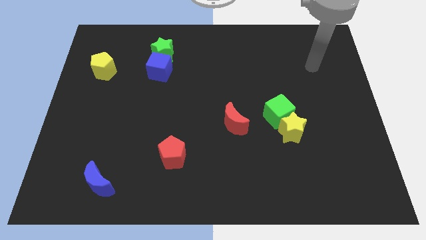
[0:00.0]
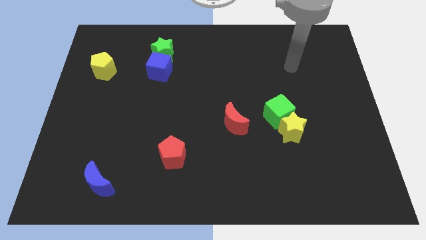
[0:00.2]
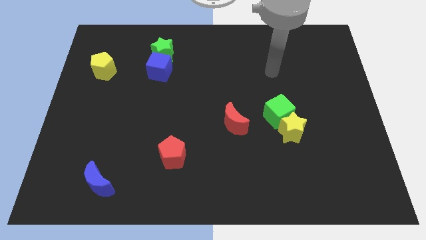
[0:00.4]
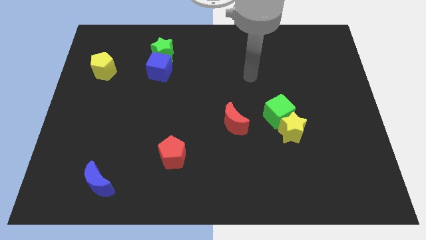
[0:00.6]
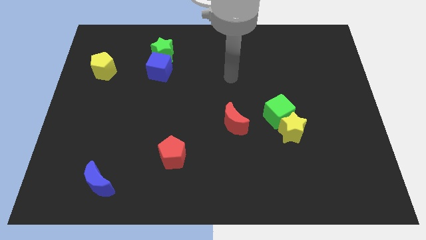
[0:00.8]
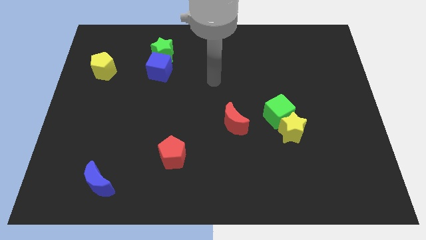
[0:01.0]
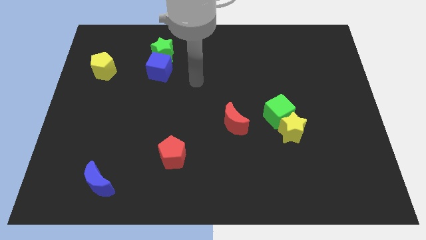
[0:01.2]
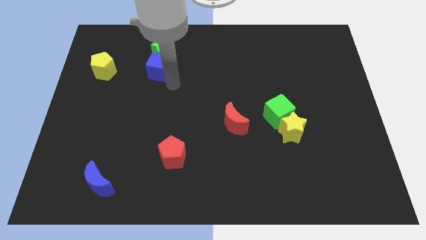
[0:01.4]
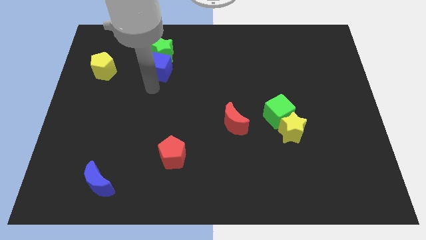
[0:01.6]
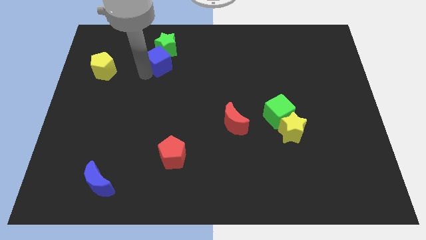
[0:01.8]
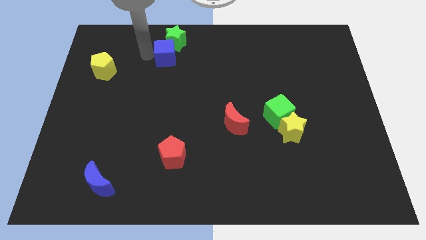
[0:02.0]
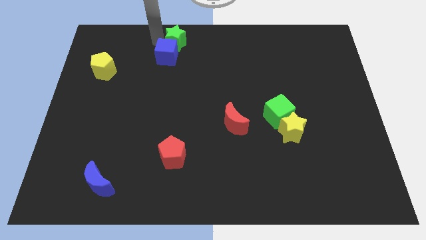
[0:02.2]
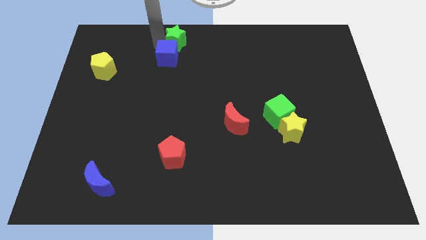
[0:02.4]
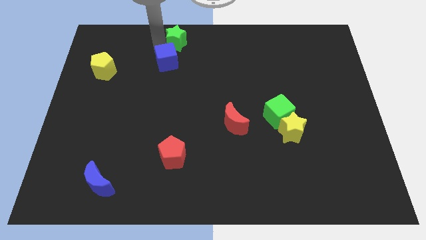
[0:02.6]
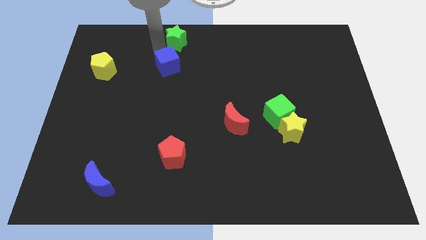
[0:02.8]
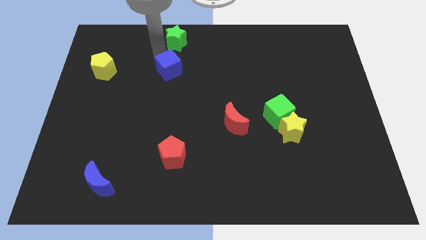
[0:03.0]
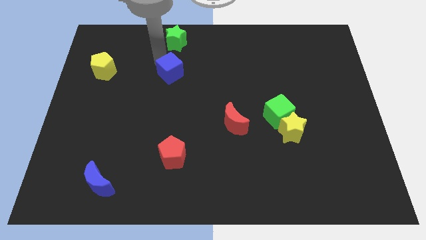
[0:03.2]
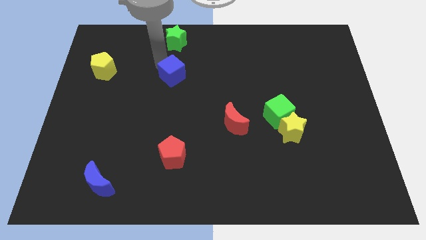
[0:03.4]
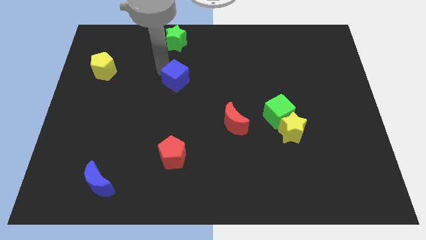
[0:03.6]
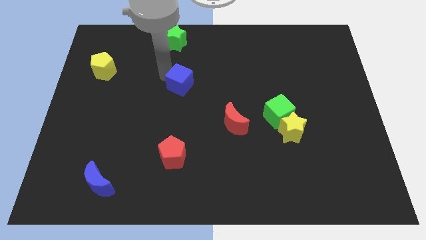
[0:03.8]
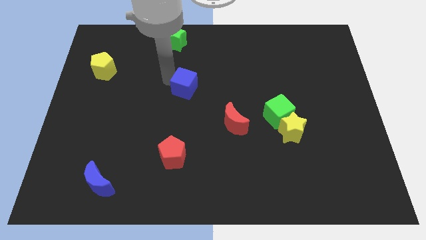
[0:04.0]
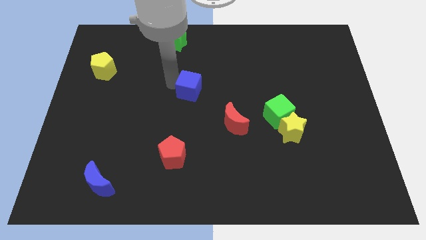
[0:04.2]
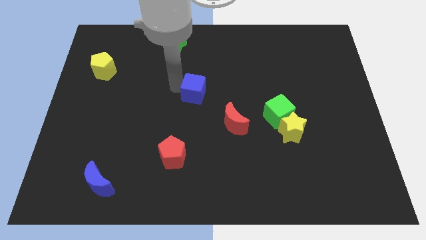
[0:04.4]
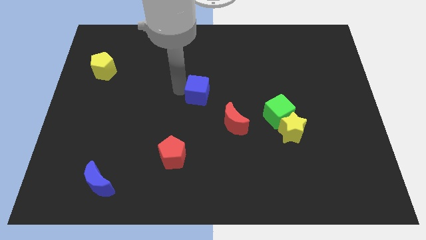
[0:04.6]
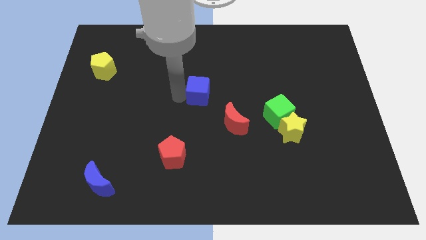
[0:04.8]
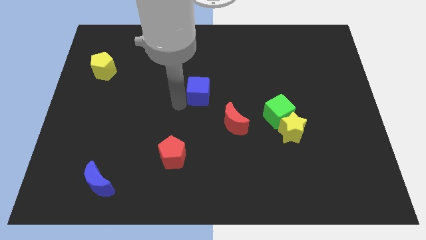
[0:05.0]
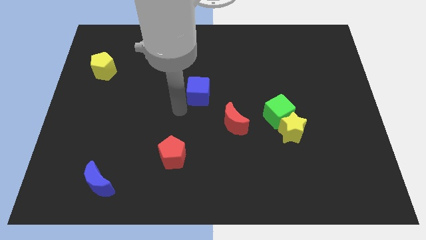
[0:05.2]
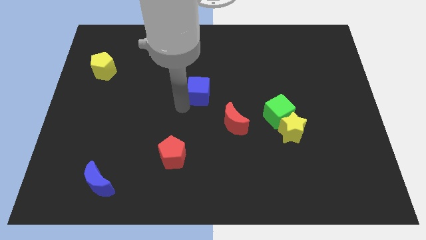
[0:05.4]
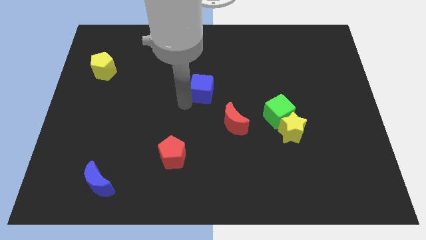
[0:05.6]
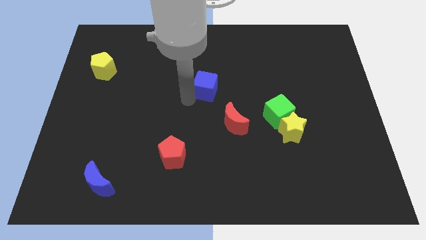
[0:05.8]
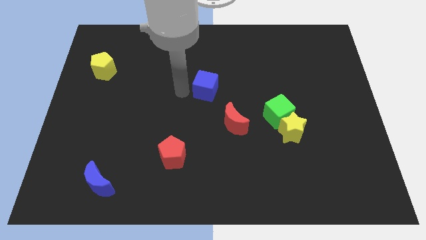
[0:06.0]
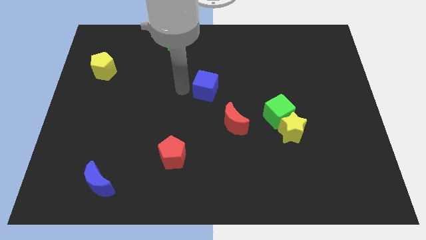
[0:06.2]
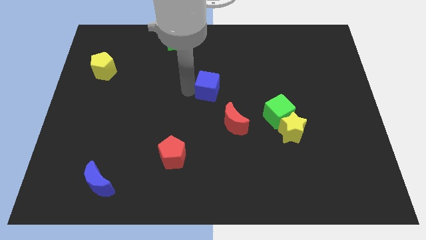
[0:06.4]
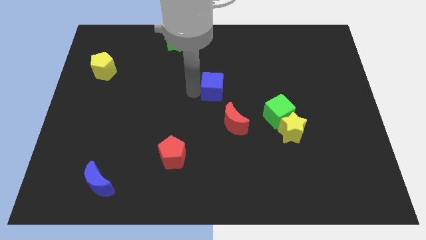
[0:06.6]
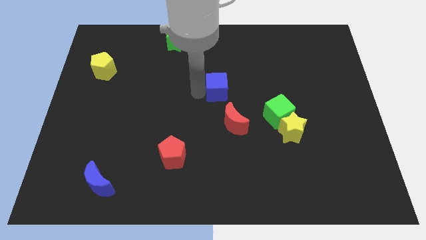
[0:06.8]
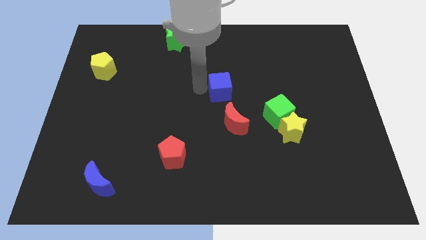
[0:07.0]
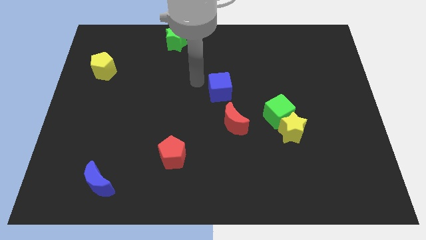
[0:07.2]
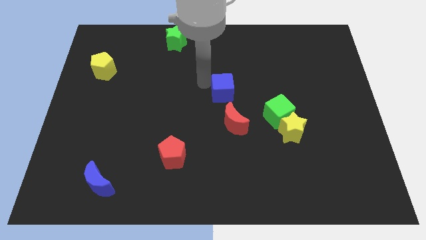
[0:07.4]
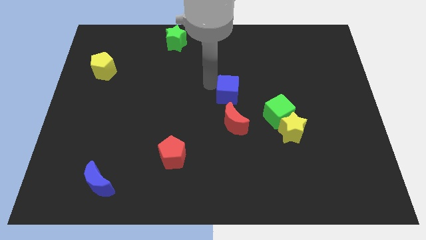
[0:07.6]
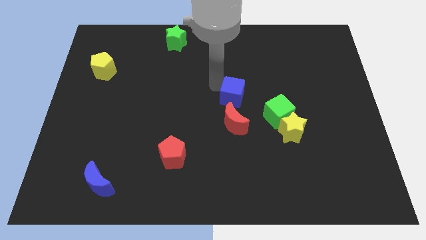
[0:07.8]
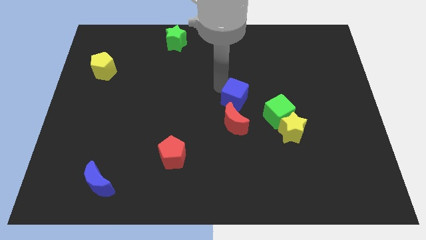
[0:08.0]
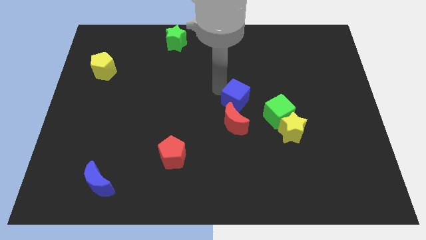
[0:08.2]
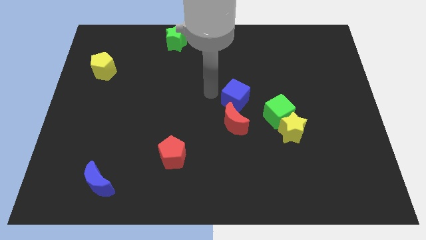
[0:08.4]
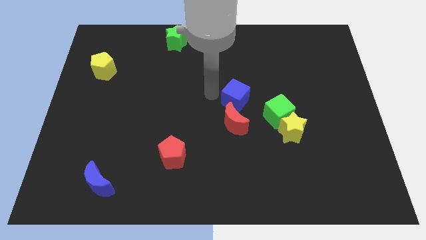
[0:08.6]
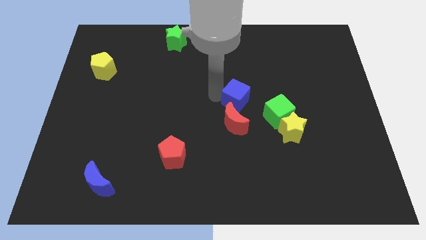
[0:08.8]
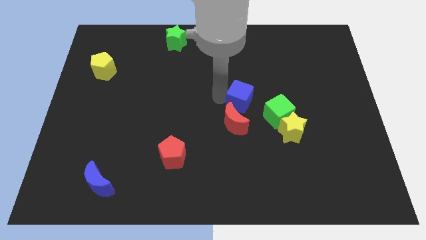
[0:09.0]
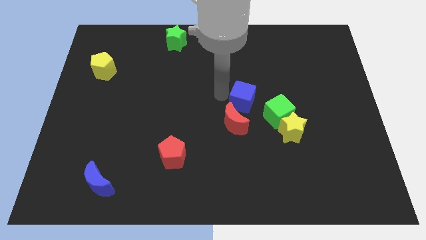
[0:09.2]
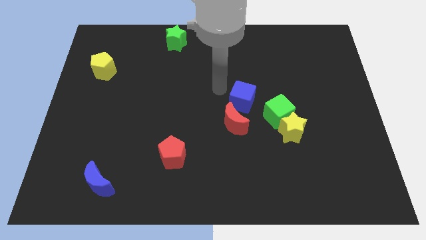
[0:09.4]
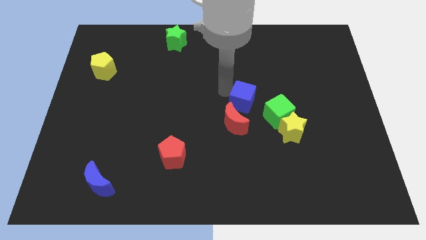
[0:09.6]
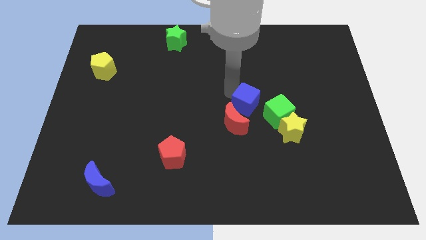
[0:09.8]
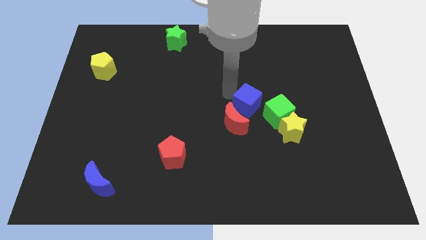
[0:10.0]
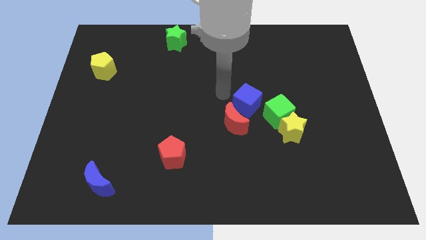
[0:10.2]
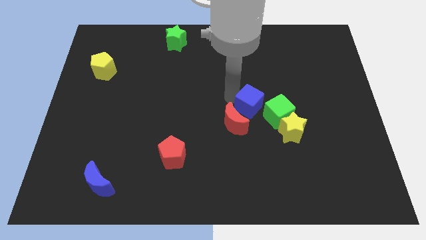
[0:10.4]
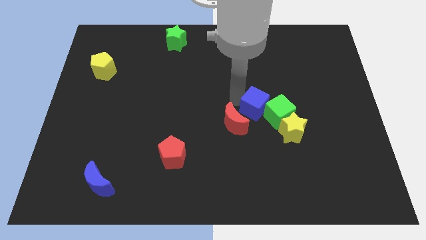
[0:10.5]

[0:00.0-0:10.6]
move the blue cube next to the green cube

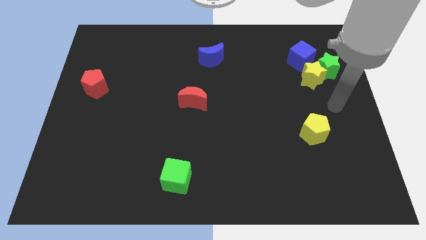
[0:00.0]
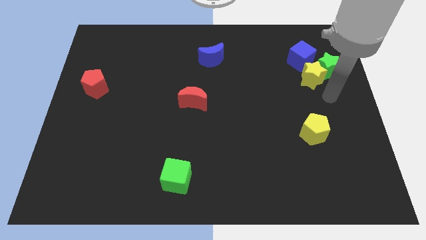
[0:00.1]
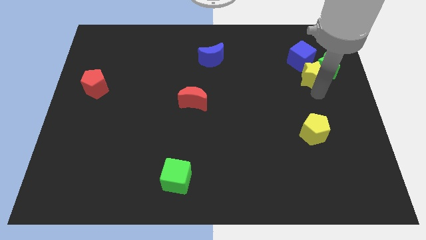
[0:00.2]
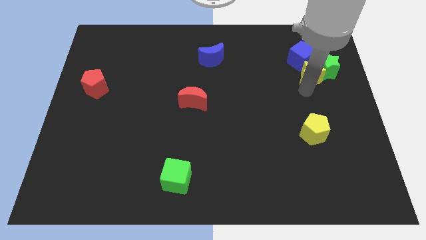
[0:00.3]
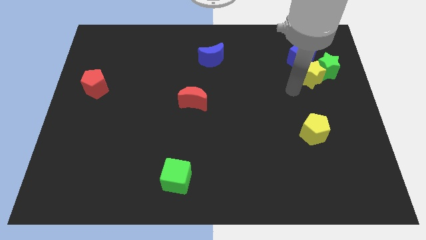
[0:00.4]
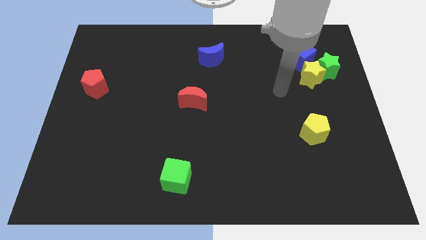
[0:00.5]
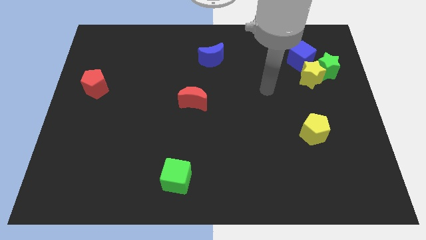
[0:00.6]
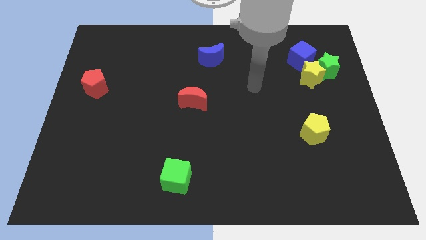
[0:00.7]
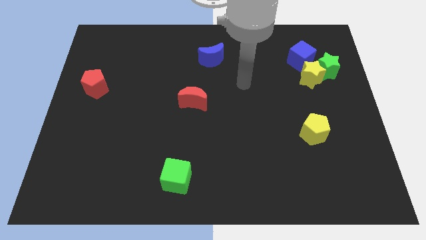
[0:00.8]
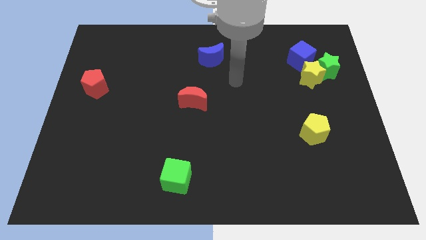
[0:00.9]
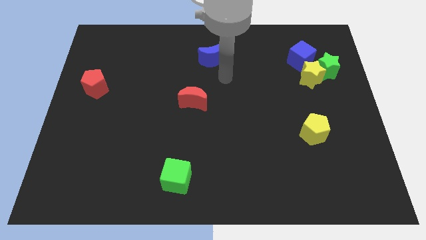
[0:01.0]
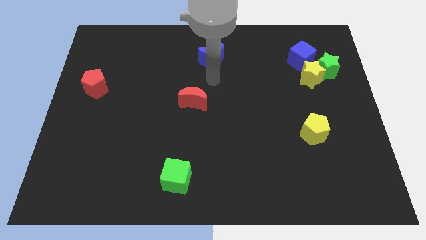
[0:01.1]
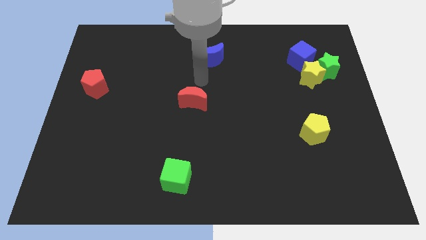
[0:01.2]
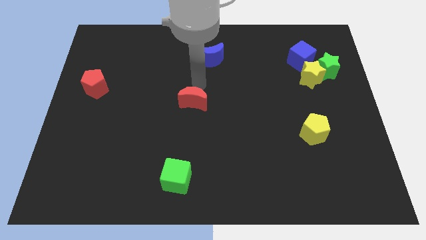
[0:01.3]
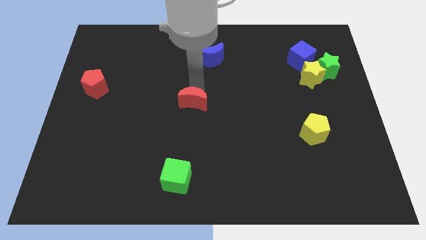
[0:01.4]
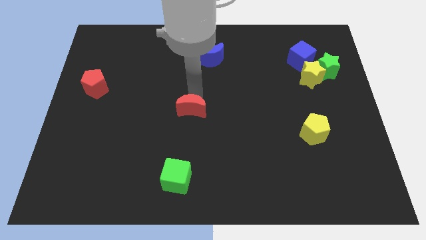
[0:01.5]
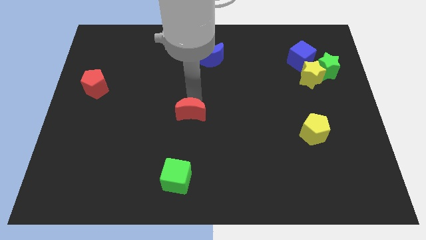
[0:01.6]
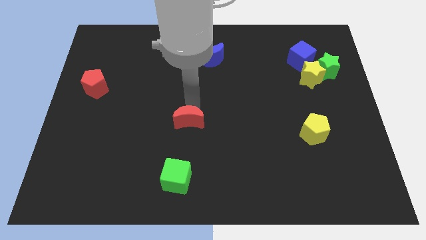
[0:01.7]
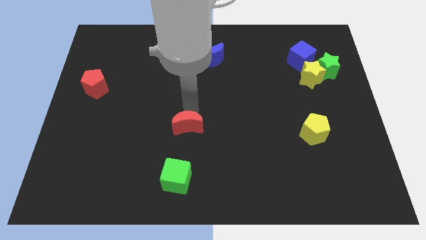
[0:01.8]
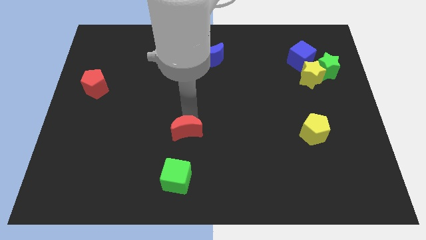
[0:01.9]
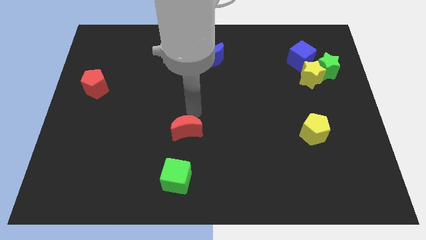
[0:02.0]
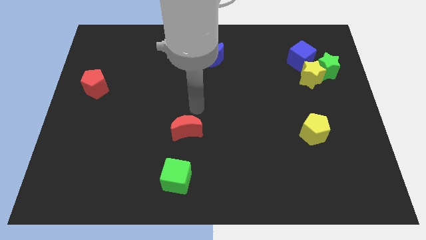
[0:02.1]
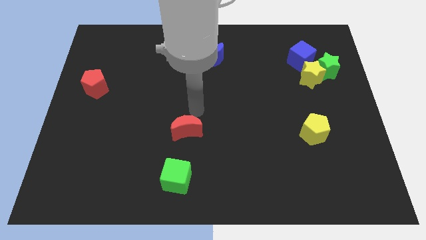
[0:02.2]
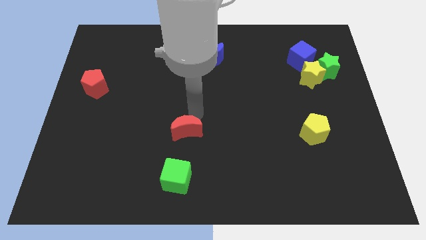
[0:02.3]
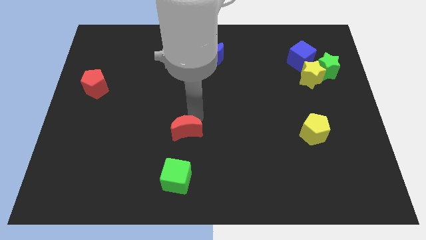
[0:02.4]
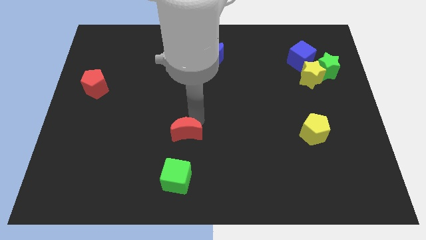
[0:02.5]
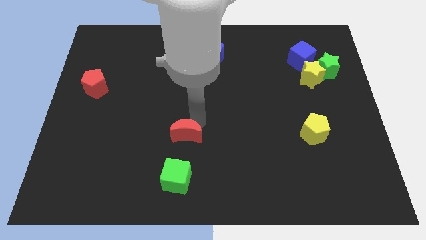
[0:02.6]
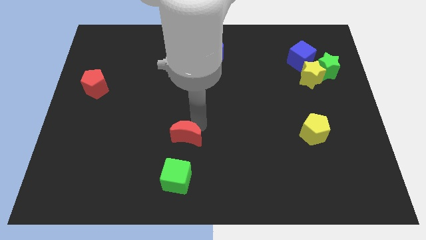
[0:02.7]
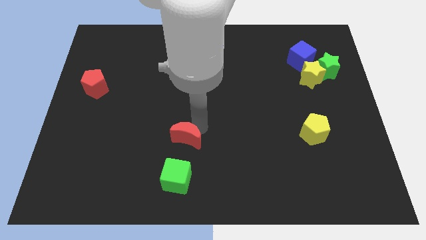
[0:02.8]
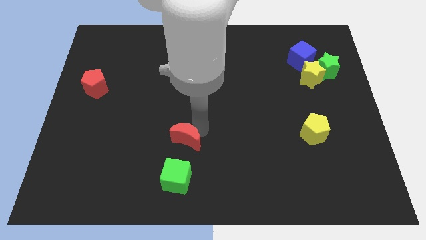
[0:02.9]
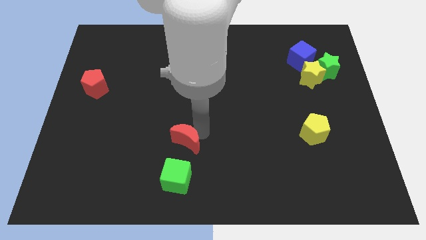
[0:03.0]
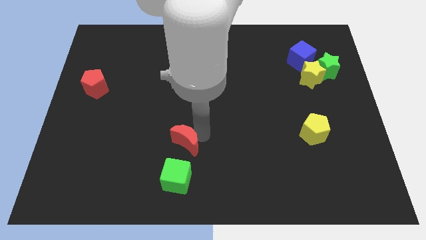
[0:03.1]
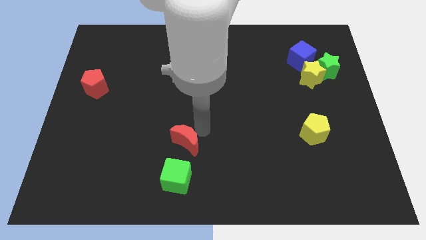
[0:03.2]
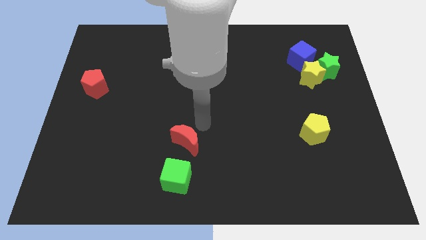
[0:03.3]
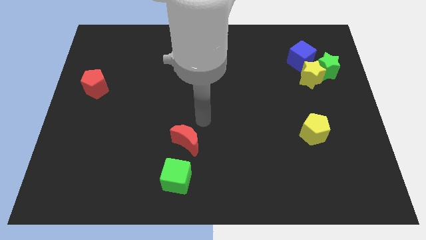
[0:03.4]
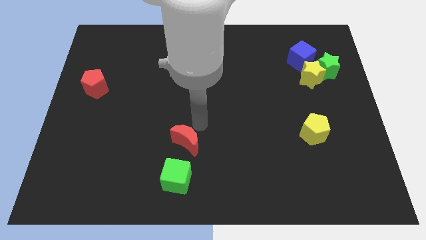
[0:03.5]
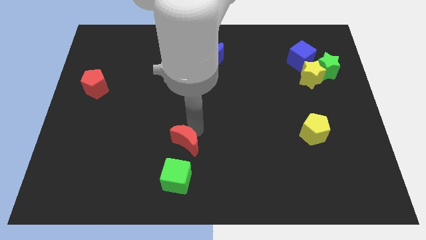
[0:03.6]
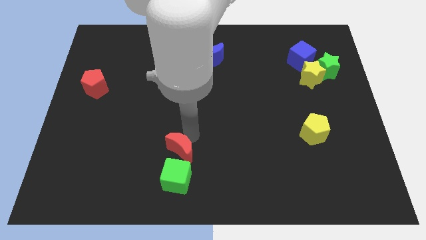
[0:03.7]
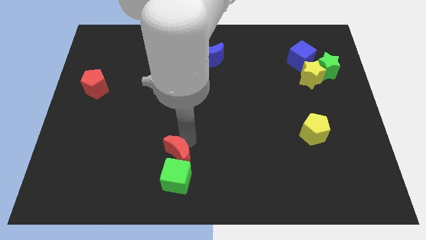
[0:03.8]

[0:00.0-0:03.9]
move the red moon to the green cube
